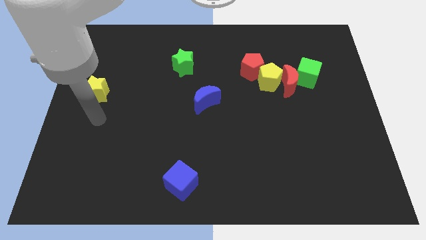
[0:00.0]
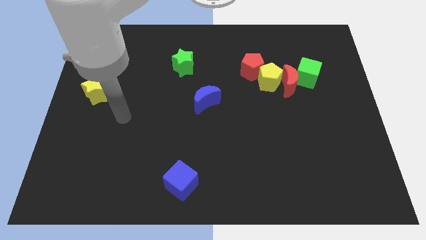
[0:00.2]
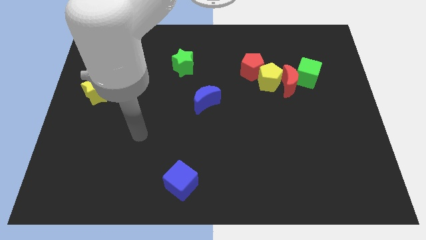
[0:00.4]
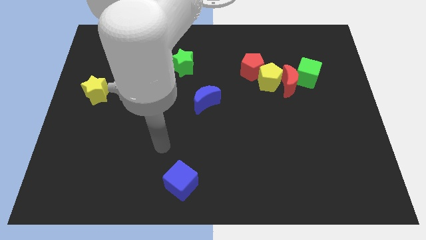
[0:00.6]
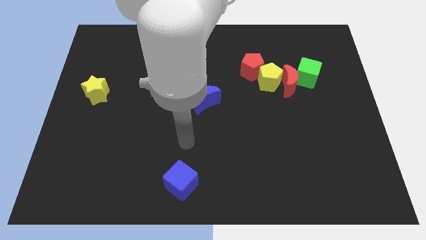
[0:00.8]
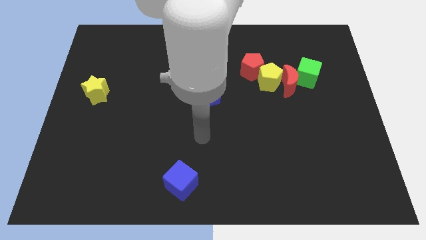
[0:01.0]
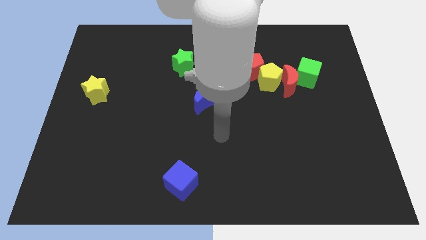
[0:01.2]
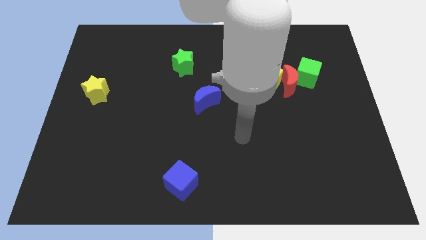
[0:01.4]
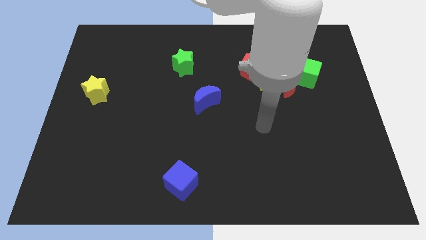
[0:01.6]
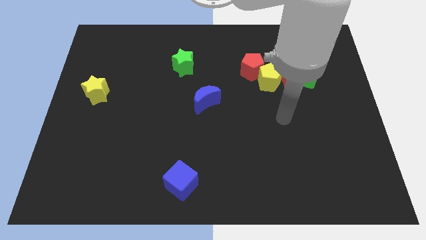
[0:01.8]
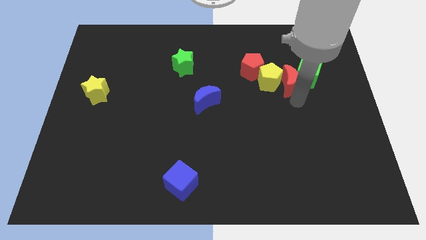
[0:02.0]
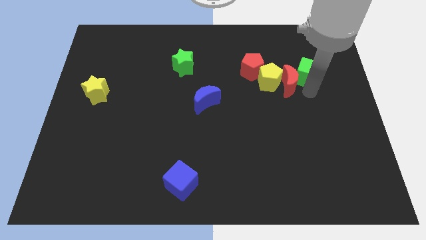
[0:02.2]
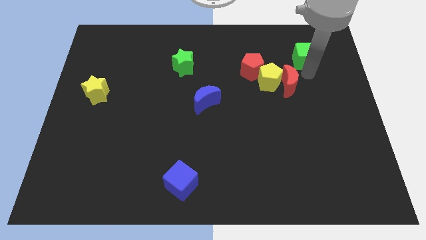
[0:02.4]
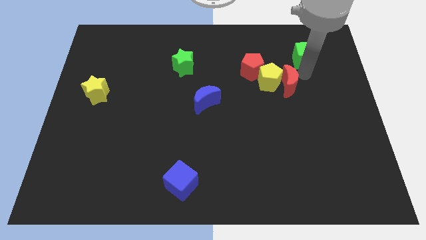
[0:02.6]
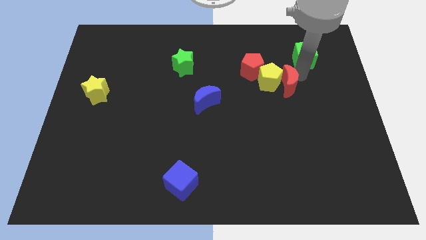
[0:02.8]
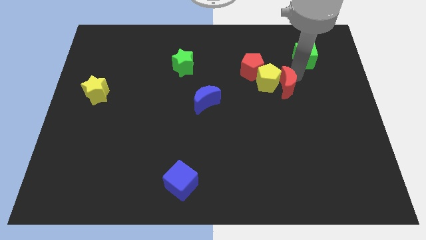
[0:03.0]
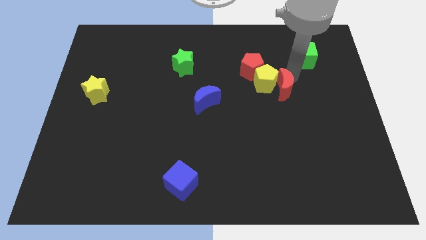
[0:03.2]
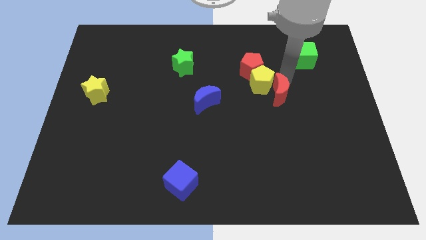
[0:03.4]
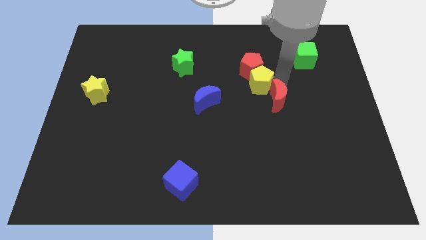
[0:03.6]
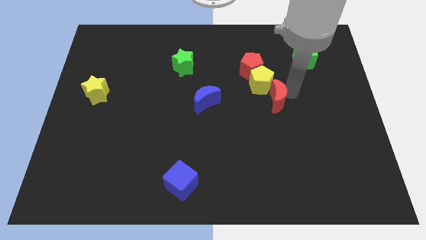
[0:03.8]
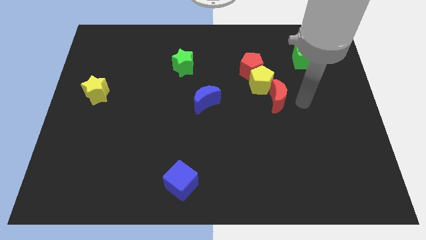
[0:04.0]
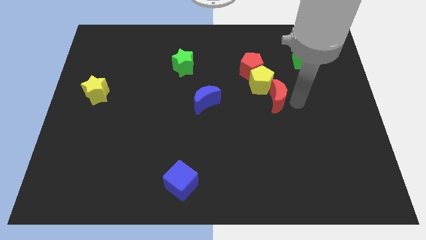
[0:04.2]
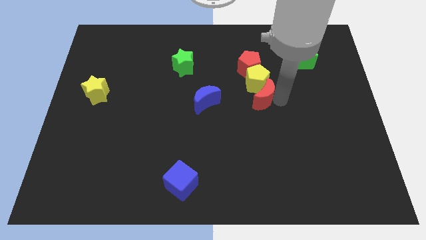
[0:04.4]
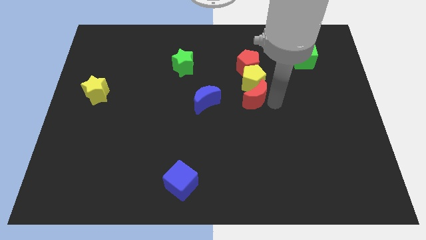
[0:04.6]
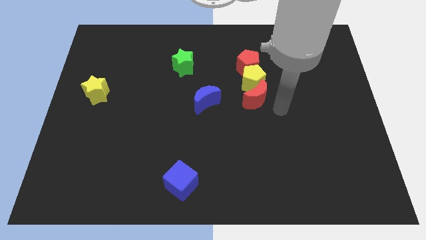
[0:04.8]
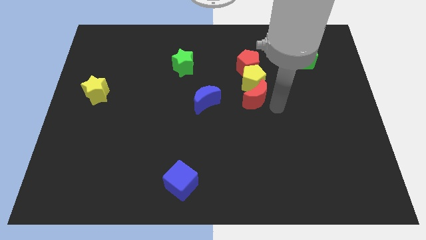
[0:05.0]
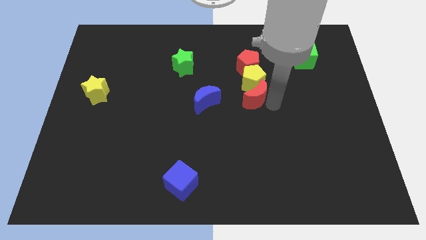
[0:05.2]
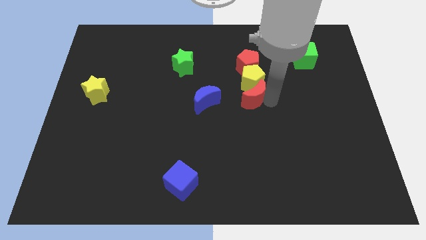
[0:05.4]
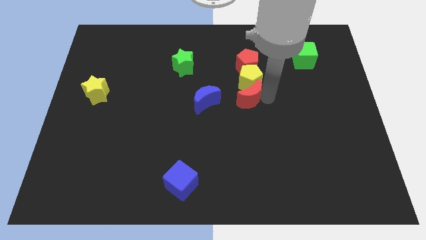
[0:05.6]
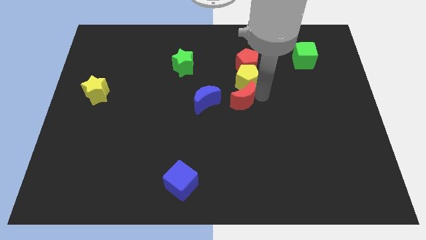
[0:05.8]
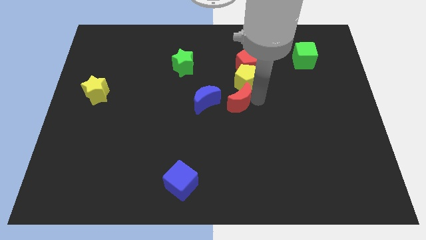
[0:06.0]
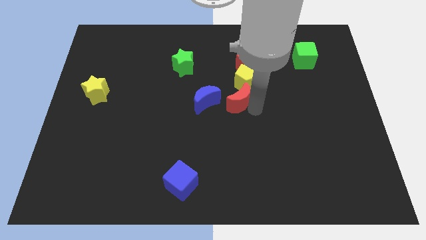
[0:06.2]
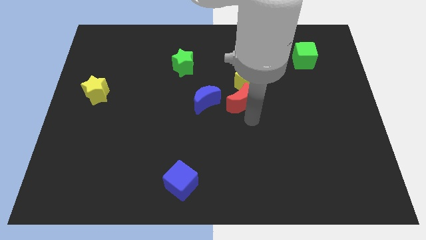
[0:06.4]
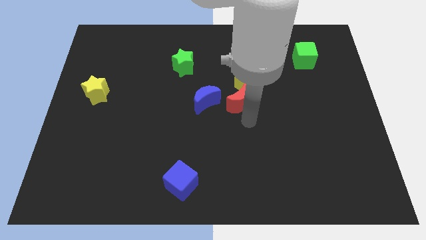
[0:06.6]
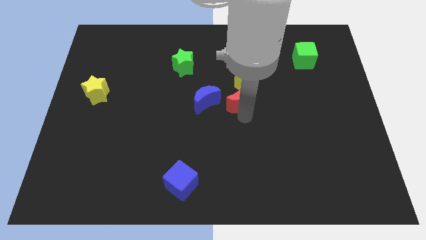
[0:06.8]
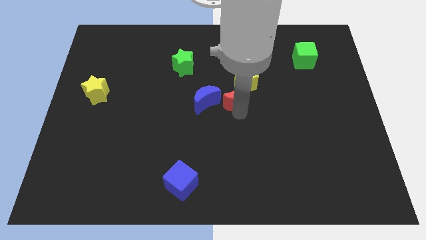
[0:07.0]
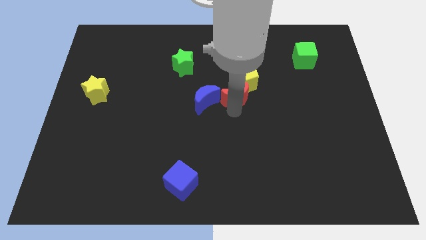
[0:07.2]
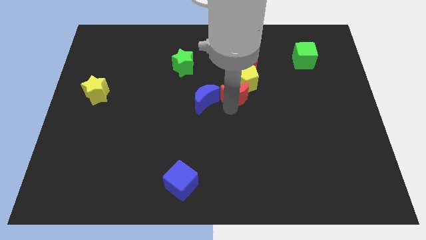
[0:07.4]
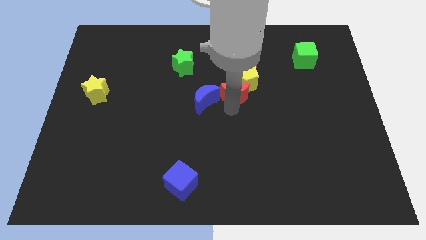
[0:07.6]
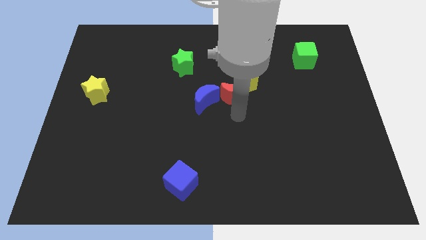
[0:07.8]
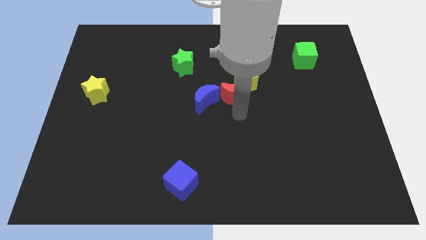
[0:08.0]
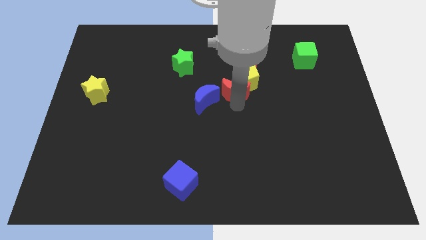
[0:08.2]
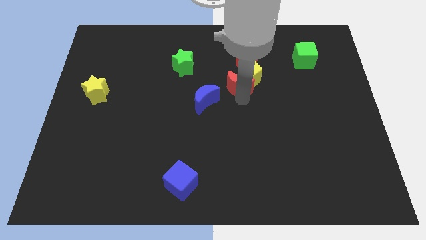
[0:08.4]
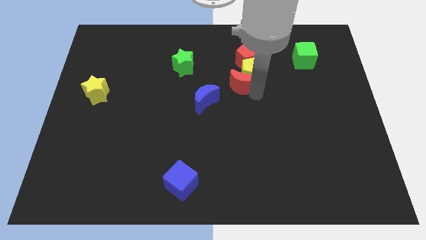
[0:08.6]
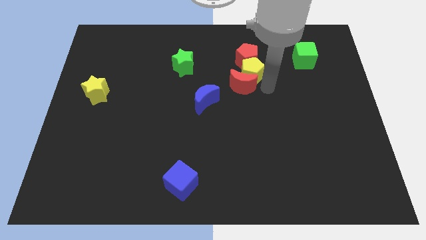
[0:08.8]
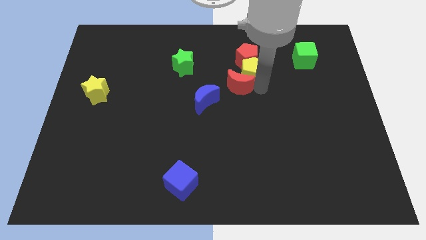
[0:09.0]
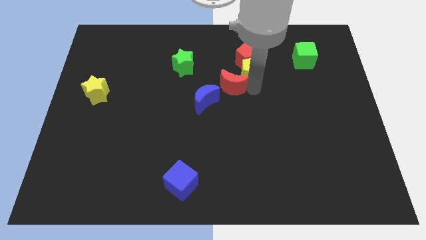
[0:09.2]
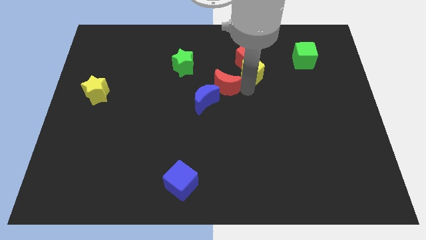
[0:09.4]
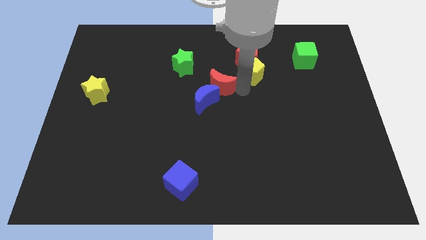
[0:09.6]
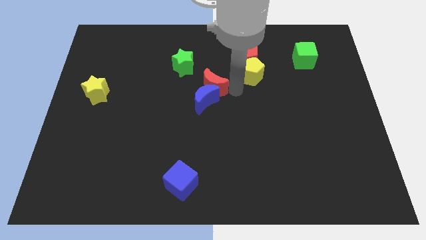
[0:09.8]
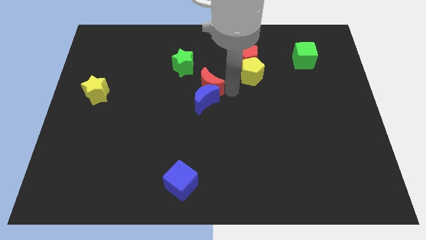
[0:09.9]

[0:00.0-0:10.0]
move the red moon left

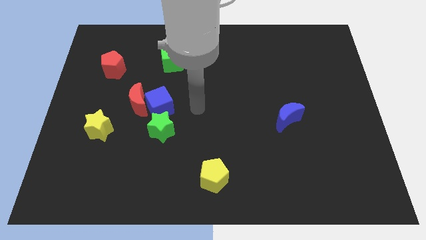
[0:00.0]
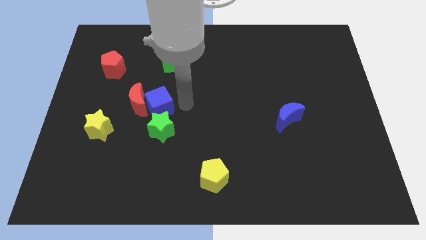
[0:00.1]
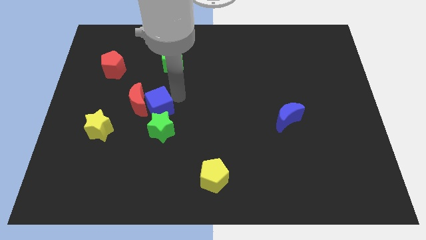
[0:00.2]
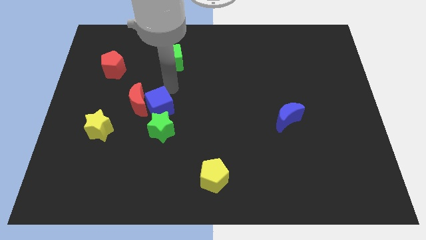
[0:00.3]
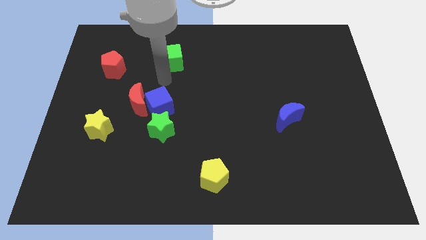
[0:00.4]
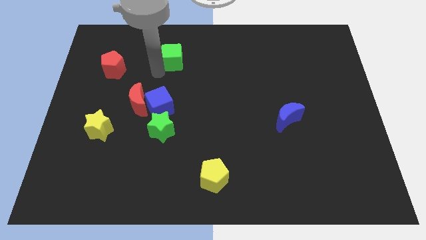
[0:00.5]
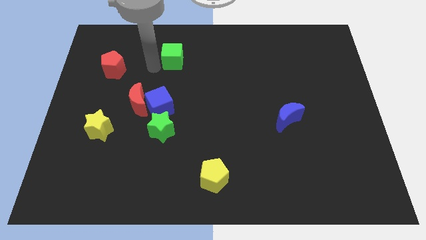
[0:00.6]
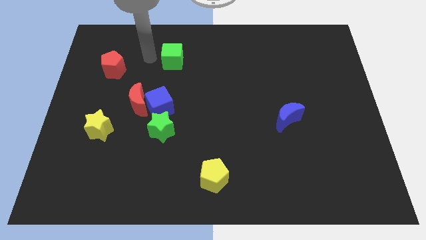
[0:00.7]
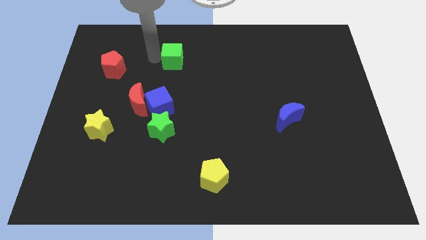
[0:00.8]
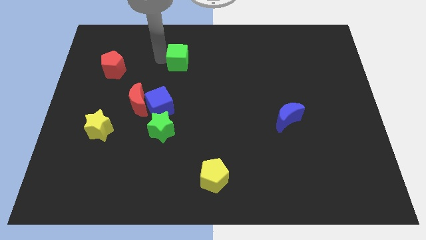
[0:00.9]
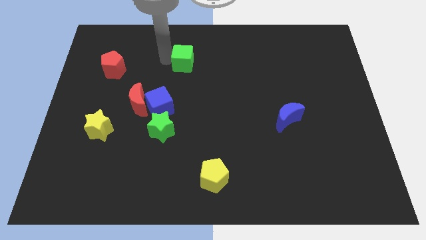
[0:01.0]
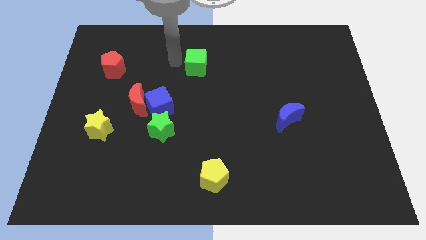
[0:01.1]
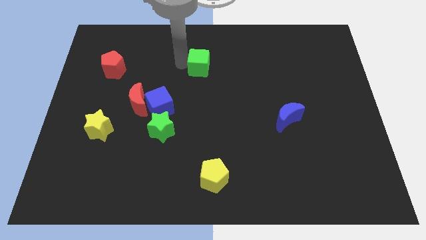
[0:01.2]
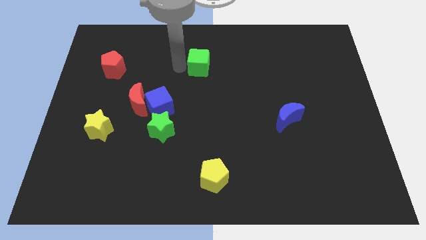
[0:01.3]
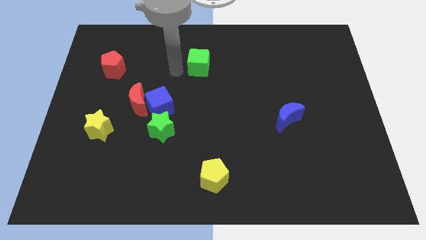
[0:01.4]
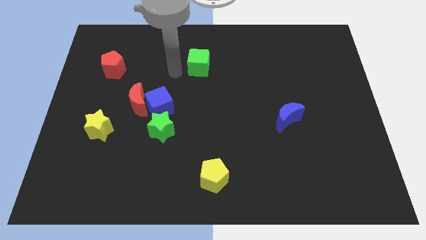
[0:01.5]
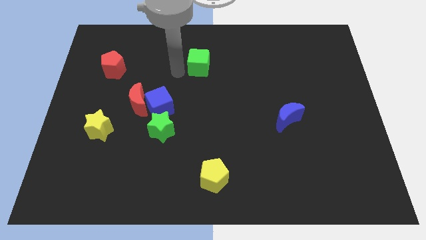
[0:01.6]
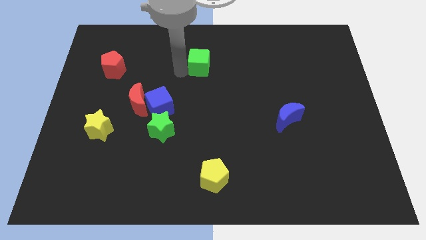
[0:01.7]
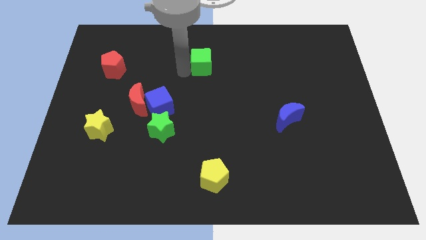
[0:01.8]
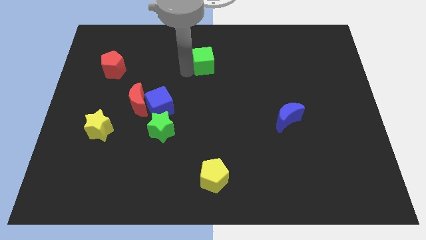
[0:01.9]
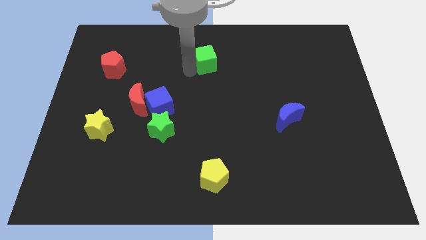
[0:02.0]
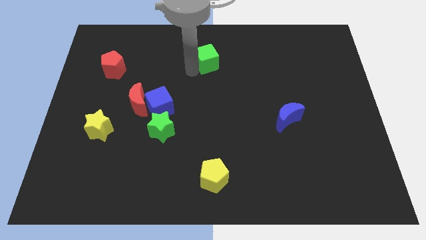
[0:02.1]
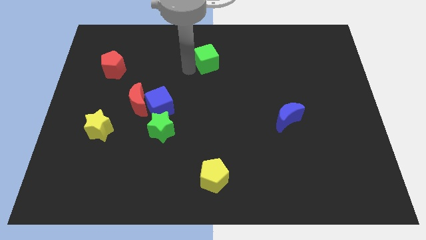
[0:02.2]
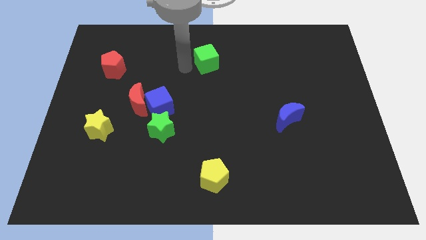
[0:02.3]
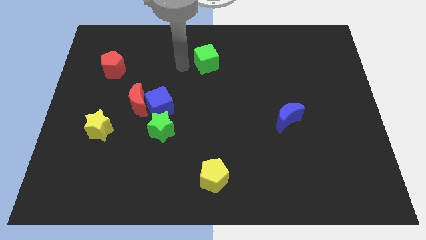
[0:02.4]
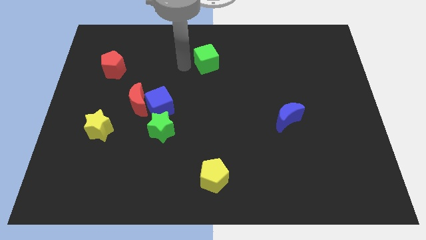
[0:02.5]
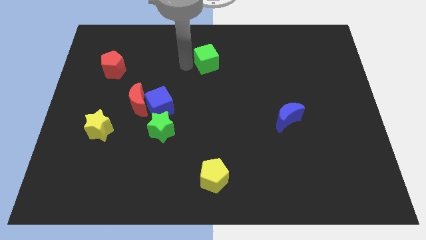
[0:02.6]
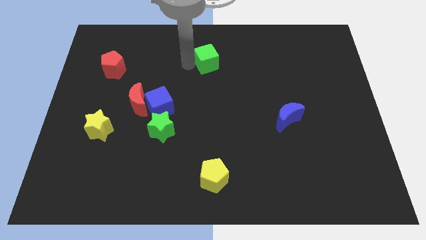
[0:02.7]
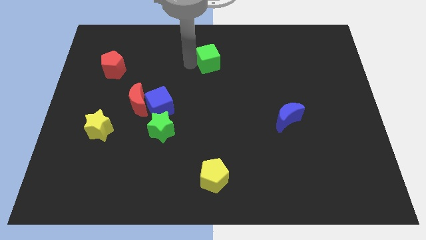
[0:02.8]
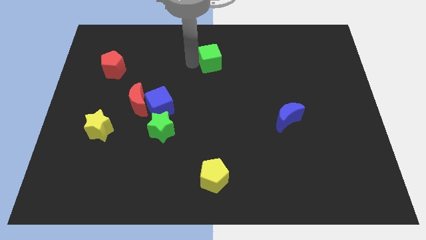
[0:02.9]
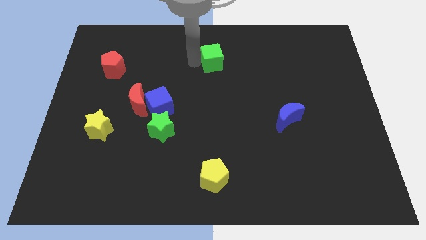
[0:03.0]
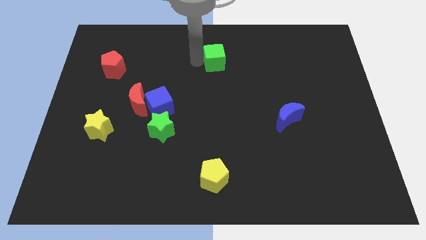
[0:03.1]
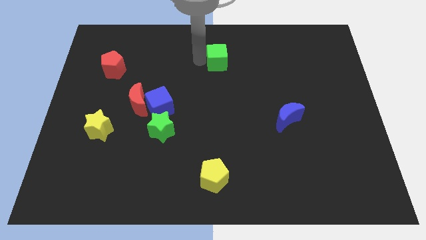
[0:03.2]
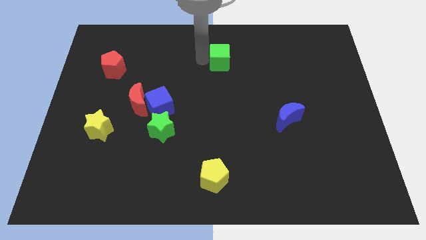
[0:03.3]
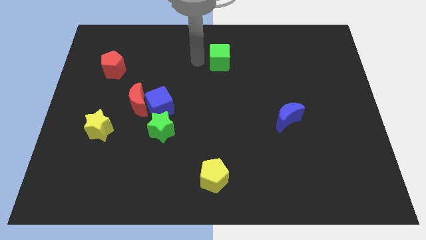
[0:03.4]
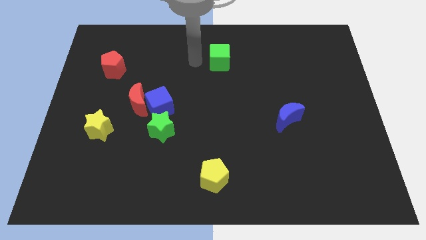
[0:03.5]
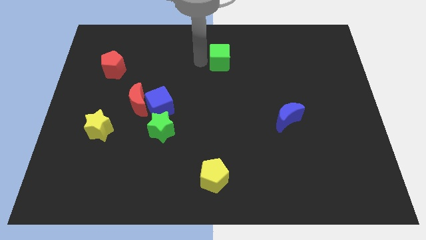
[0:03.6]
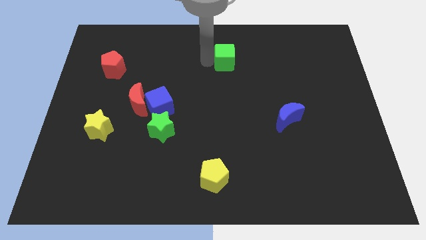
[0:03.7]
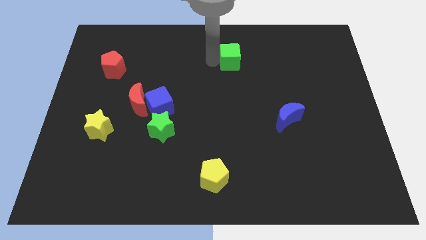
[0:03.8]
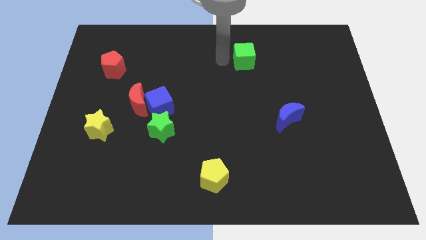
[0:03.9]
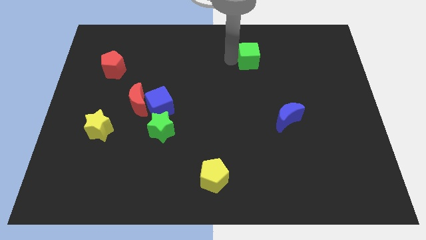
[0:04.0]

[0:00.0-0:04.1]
push the green cube right
